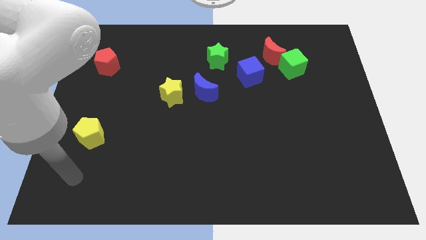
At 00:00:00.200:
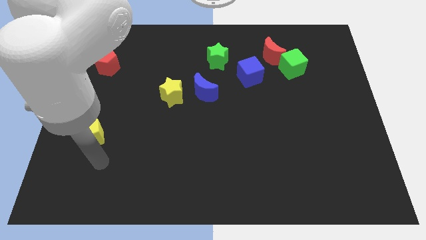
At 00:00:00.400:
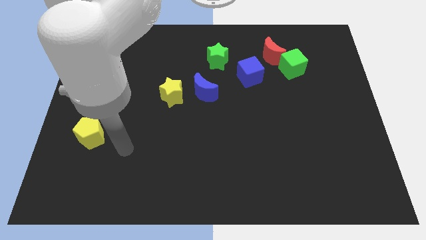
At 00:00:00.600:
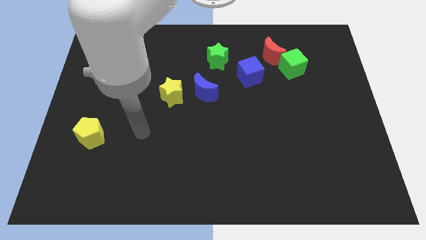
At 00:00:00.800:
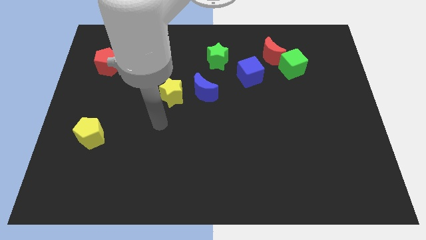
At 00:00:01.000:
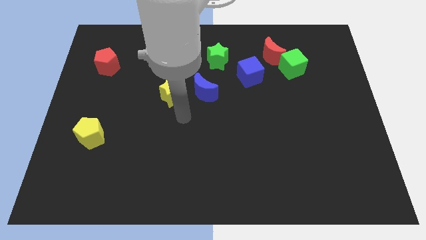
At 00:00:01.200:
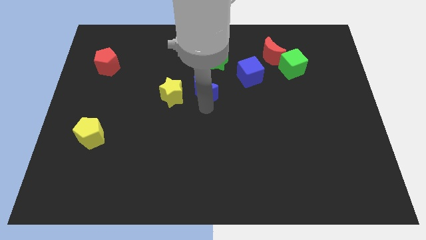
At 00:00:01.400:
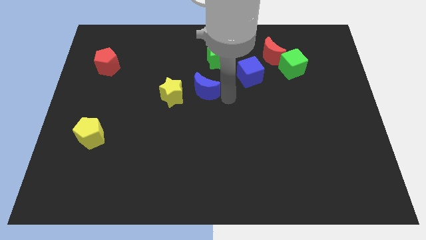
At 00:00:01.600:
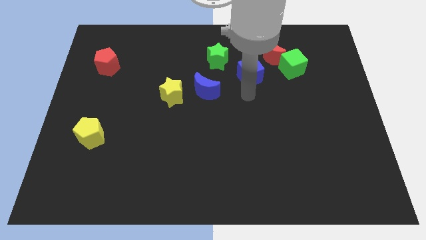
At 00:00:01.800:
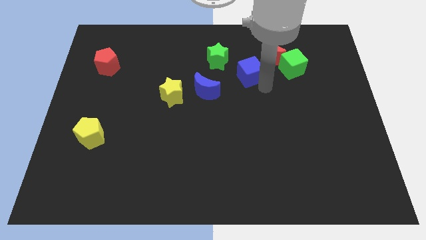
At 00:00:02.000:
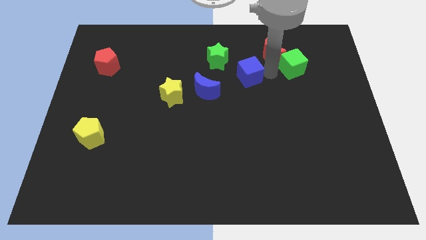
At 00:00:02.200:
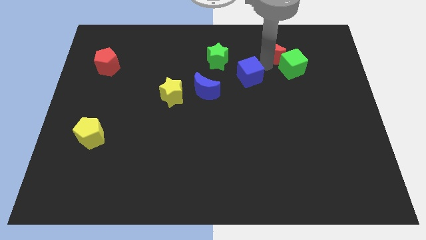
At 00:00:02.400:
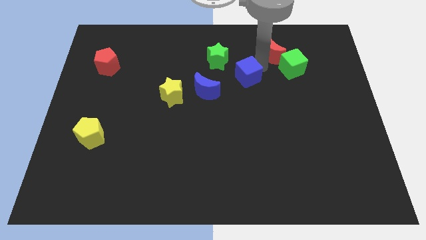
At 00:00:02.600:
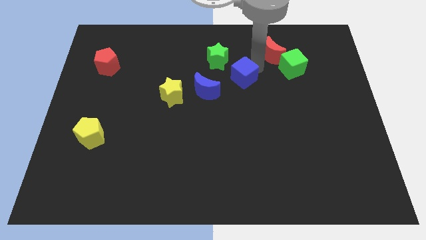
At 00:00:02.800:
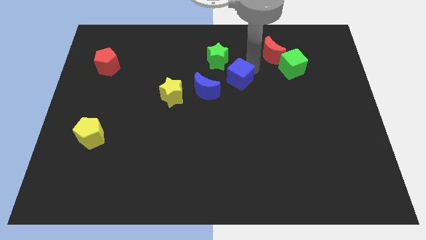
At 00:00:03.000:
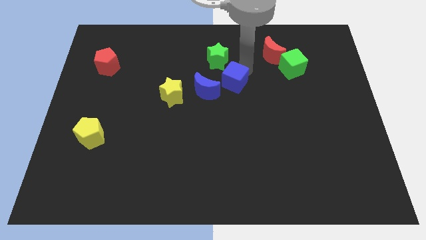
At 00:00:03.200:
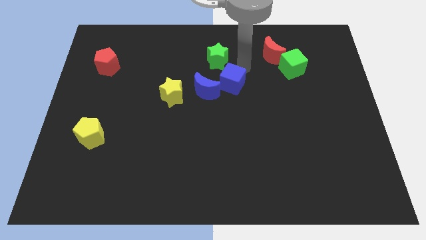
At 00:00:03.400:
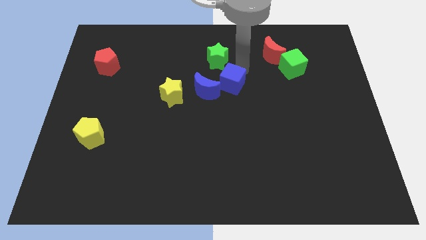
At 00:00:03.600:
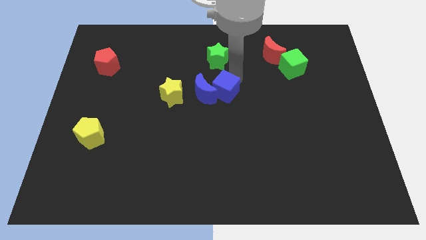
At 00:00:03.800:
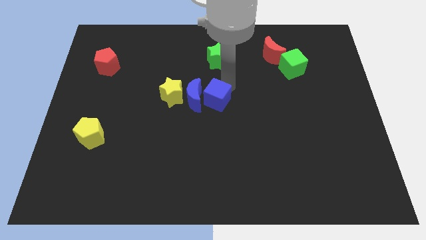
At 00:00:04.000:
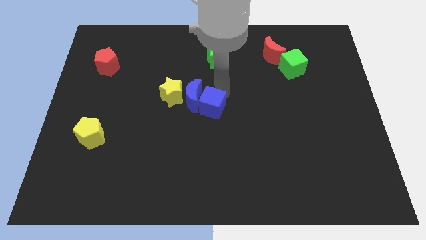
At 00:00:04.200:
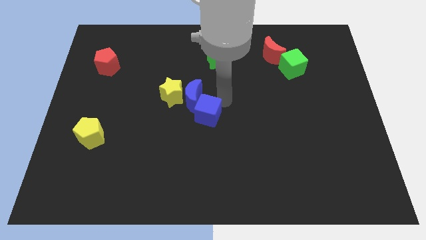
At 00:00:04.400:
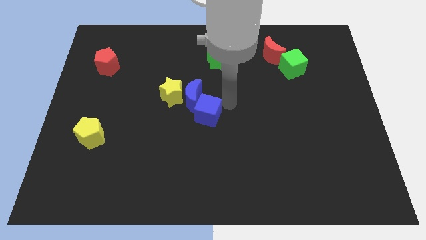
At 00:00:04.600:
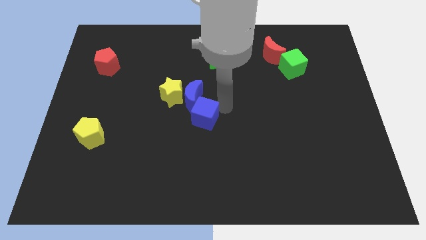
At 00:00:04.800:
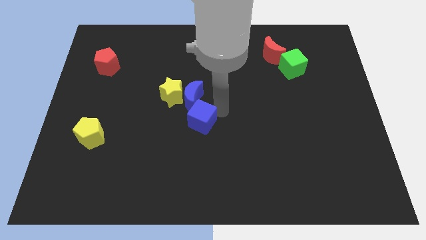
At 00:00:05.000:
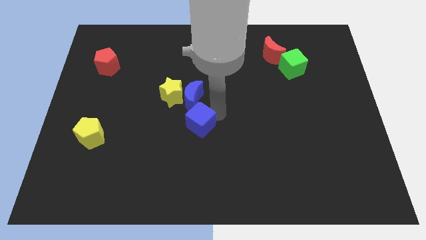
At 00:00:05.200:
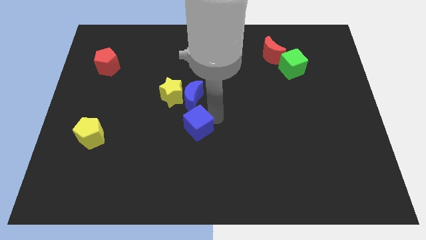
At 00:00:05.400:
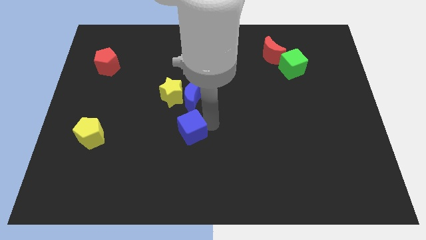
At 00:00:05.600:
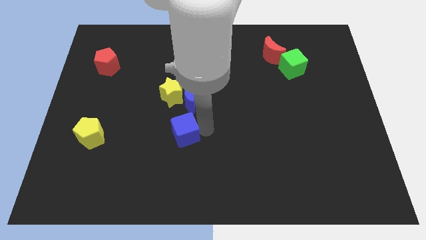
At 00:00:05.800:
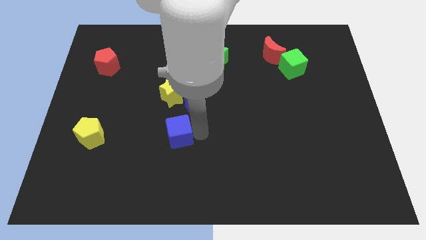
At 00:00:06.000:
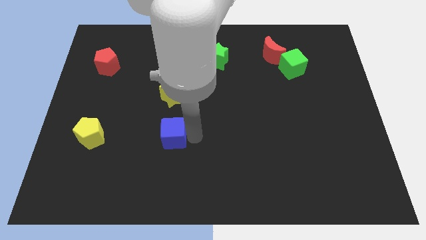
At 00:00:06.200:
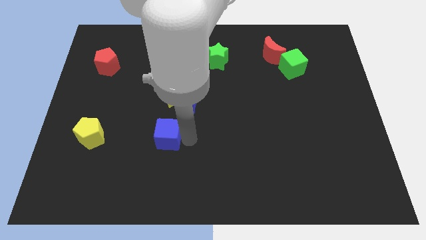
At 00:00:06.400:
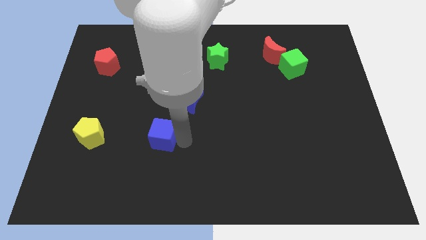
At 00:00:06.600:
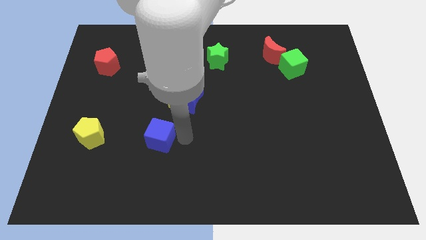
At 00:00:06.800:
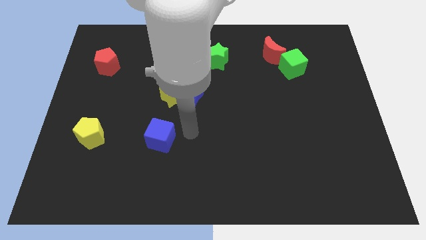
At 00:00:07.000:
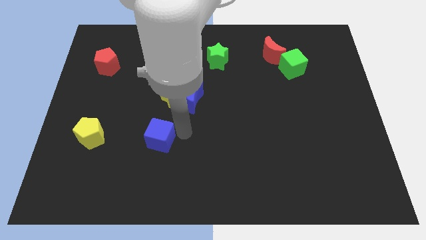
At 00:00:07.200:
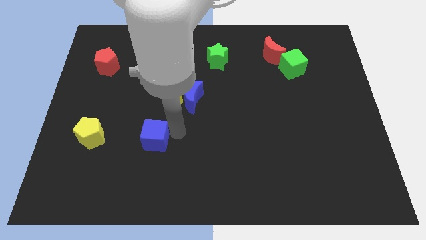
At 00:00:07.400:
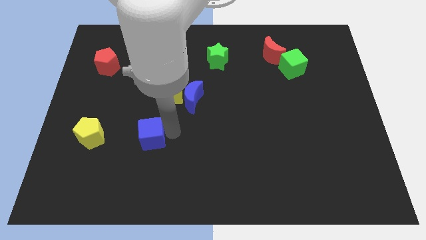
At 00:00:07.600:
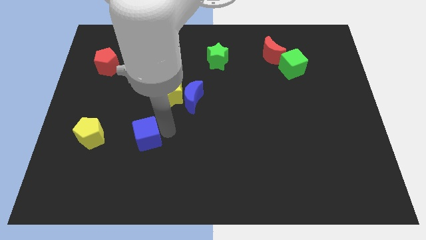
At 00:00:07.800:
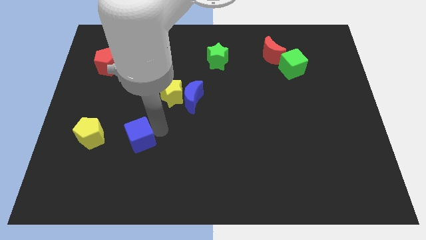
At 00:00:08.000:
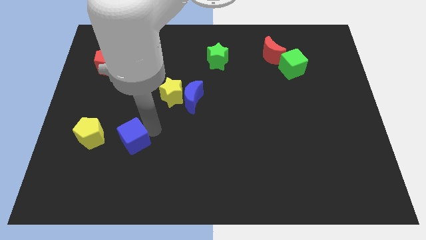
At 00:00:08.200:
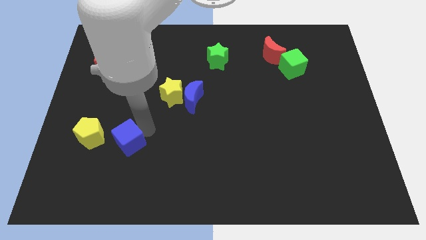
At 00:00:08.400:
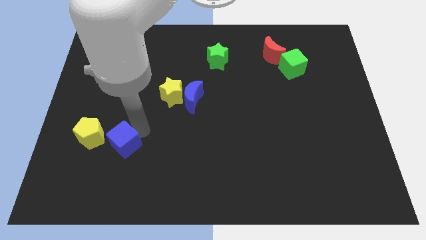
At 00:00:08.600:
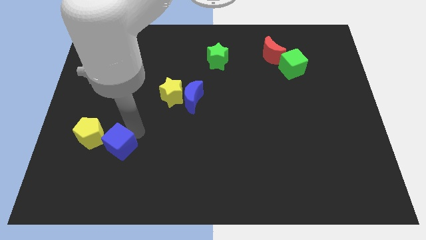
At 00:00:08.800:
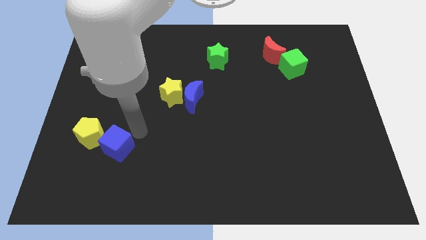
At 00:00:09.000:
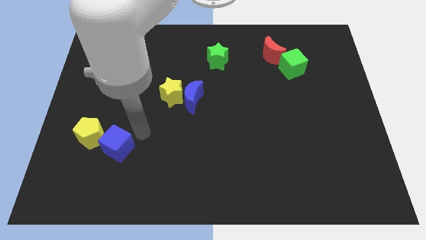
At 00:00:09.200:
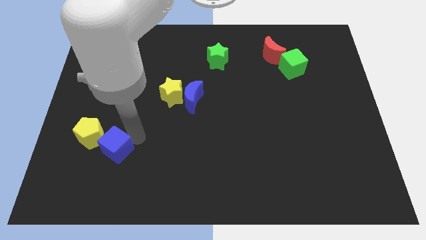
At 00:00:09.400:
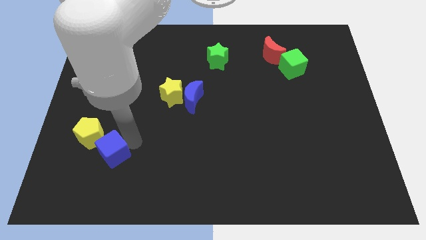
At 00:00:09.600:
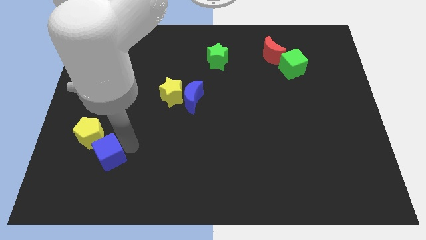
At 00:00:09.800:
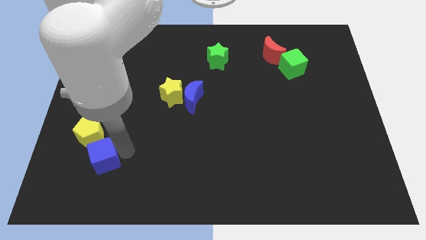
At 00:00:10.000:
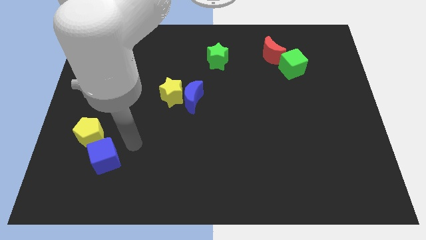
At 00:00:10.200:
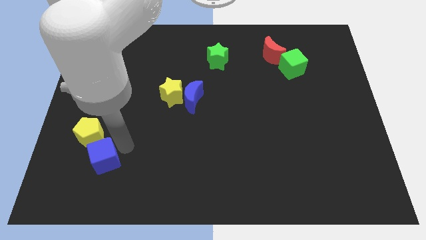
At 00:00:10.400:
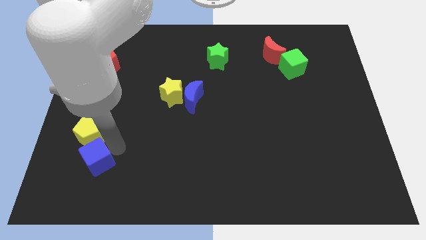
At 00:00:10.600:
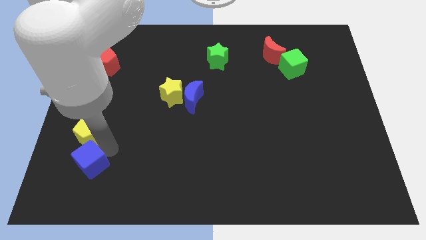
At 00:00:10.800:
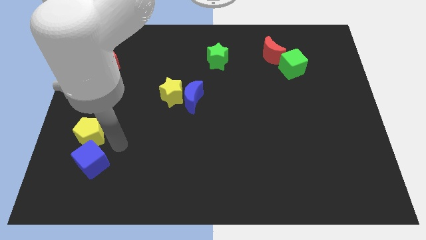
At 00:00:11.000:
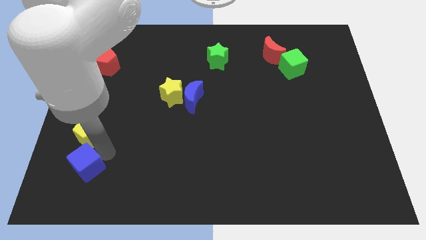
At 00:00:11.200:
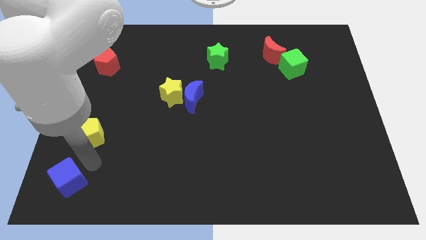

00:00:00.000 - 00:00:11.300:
slide the blue cube to the bottom left

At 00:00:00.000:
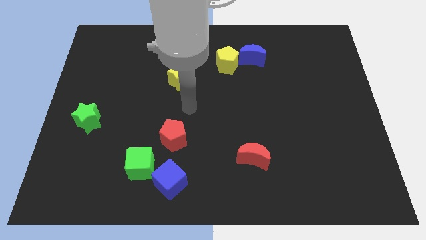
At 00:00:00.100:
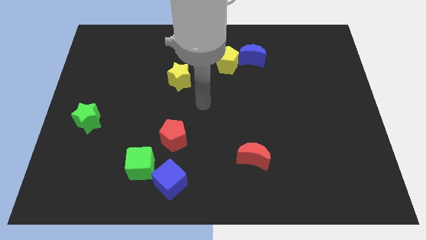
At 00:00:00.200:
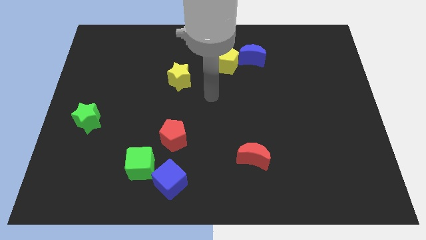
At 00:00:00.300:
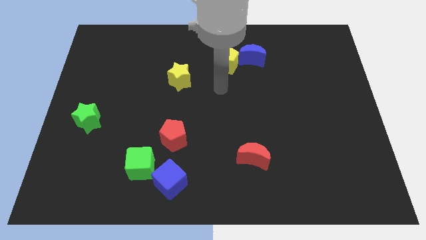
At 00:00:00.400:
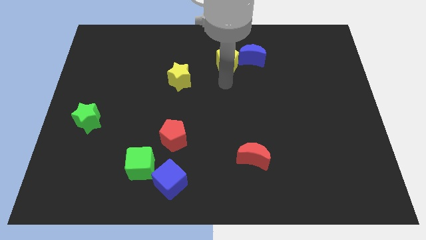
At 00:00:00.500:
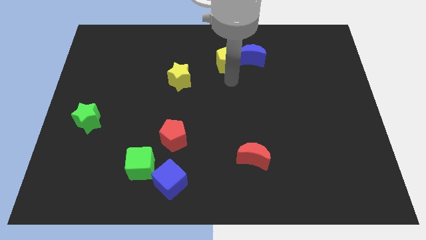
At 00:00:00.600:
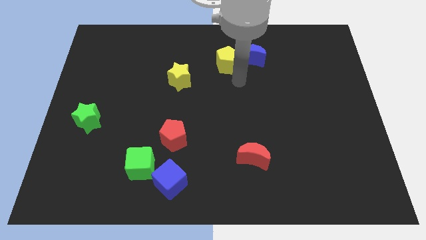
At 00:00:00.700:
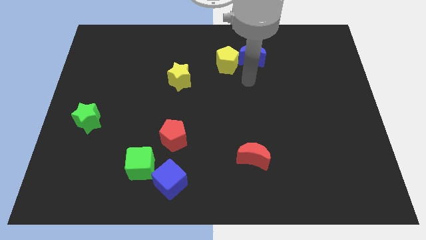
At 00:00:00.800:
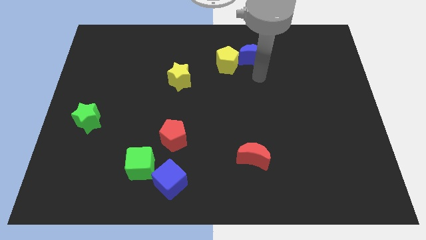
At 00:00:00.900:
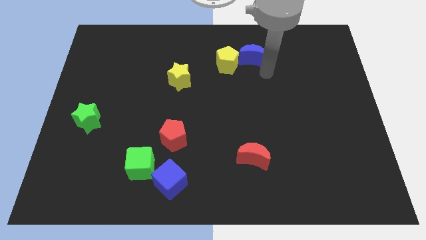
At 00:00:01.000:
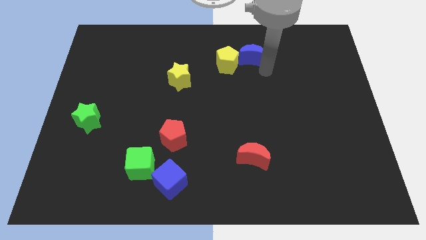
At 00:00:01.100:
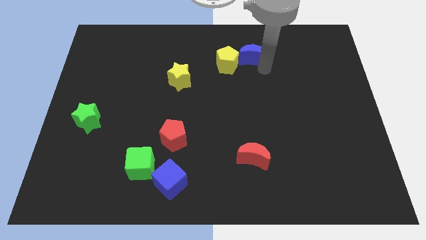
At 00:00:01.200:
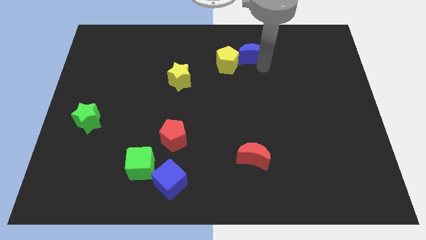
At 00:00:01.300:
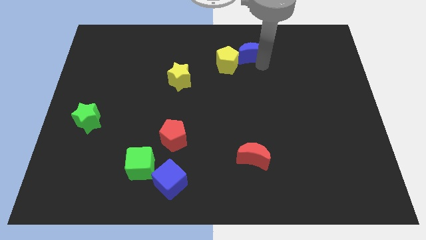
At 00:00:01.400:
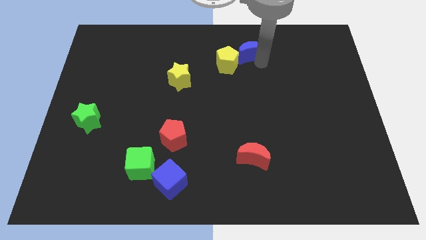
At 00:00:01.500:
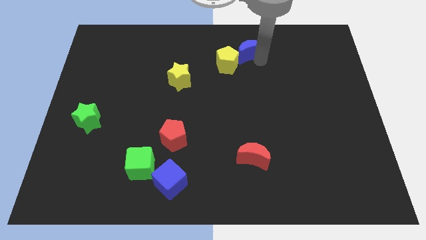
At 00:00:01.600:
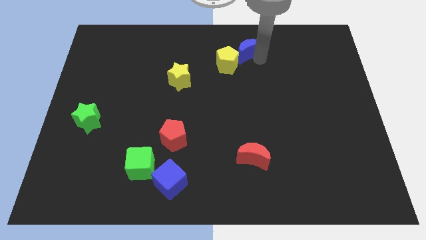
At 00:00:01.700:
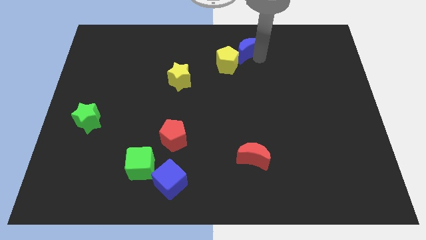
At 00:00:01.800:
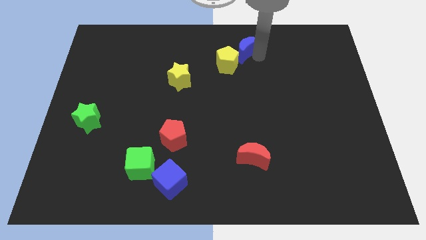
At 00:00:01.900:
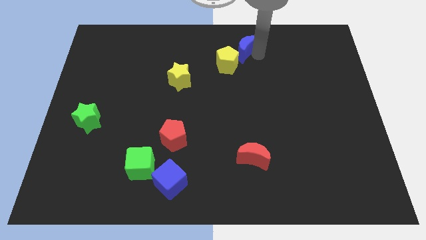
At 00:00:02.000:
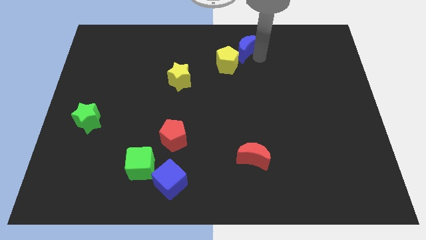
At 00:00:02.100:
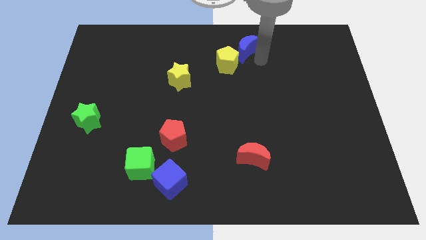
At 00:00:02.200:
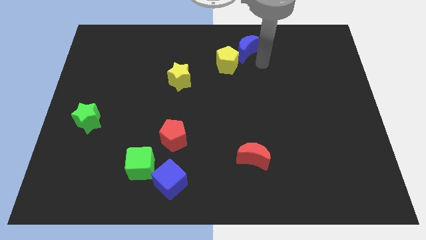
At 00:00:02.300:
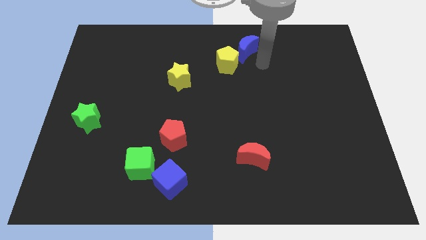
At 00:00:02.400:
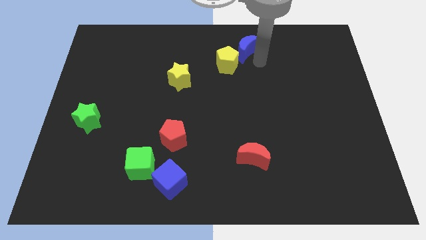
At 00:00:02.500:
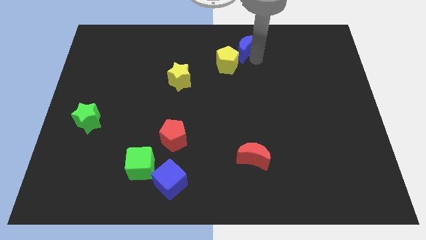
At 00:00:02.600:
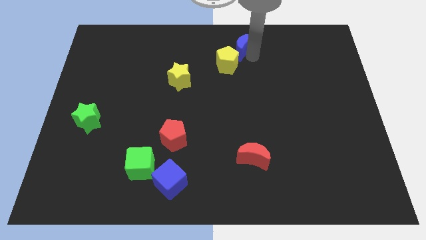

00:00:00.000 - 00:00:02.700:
move the blue moon to the towards your base
